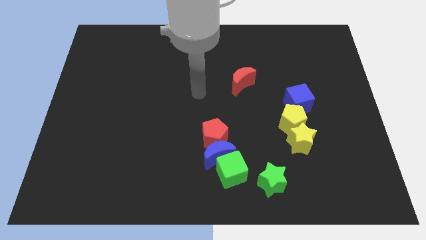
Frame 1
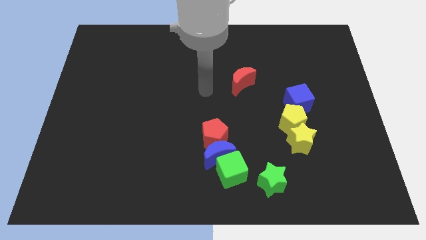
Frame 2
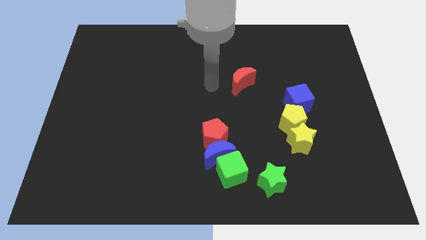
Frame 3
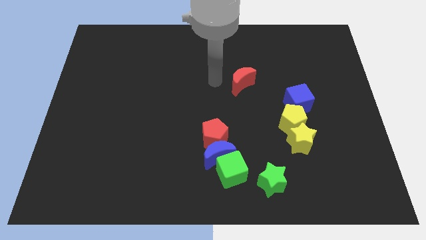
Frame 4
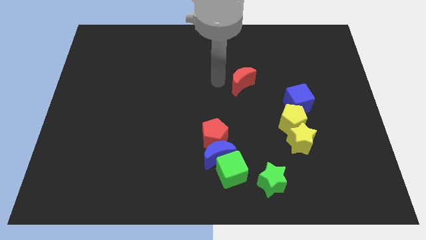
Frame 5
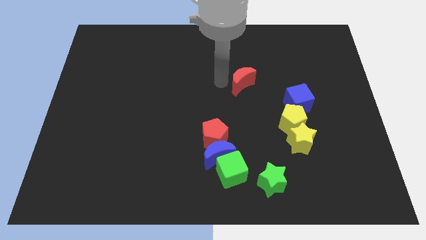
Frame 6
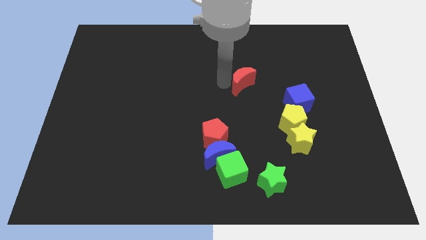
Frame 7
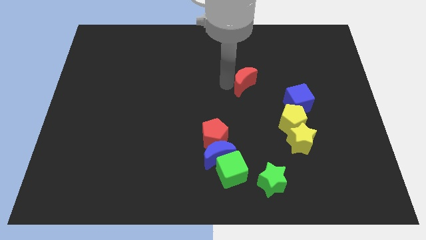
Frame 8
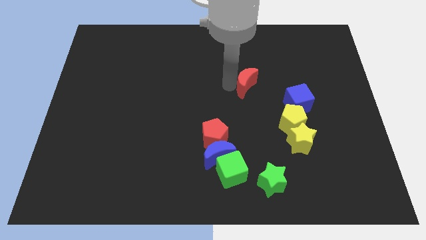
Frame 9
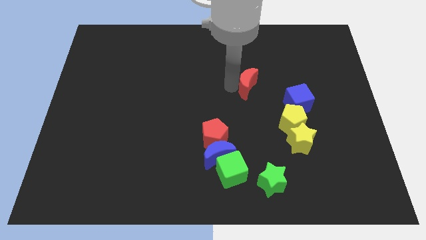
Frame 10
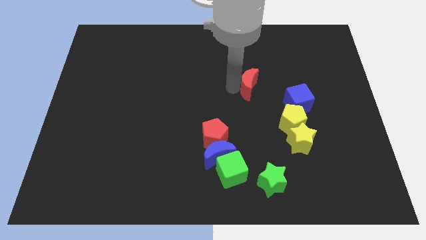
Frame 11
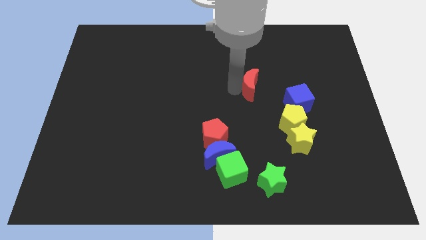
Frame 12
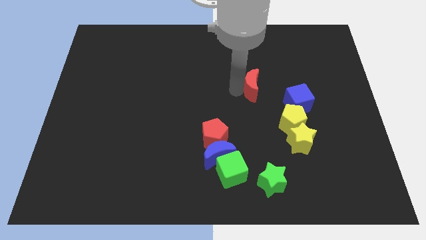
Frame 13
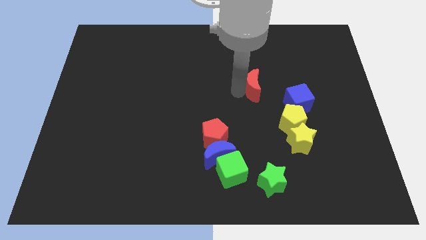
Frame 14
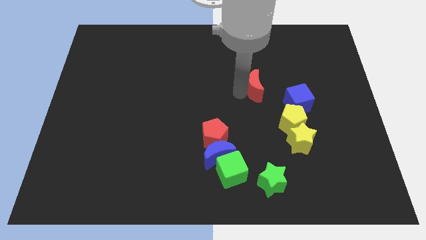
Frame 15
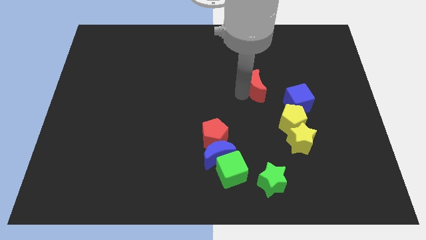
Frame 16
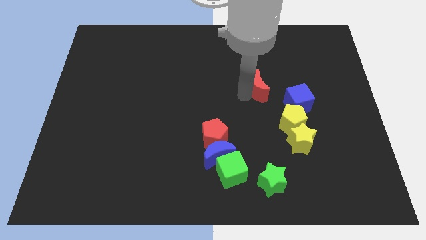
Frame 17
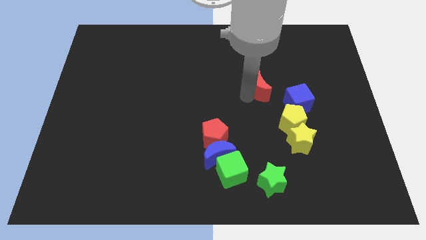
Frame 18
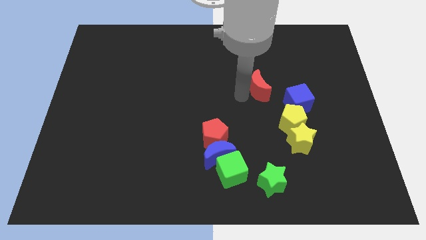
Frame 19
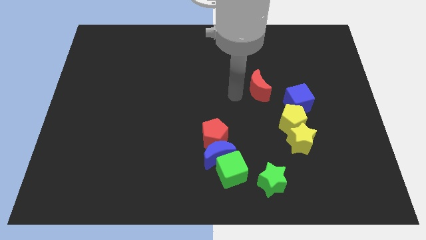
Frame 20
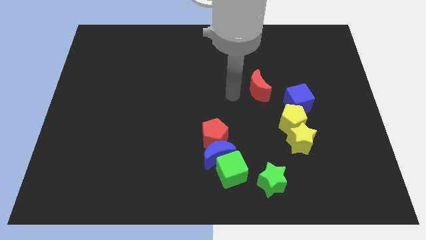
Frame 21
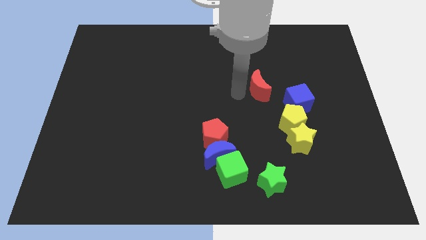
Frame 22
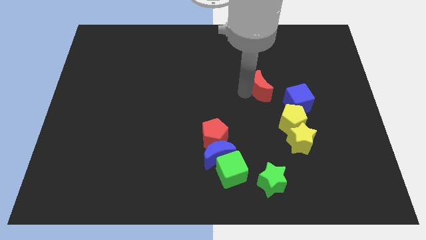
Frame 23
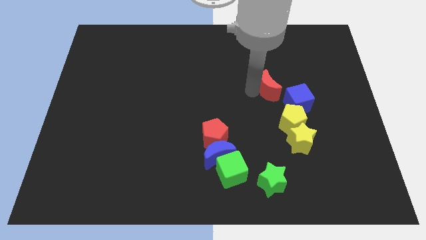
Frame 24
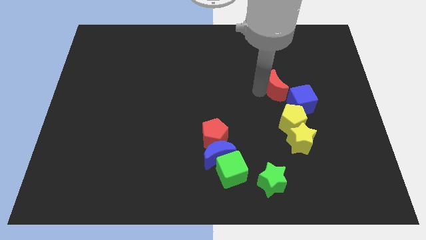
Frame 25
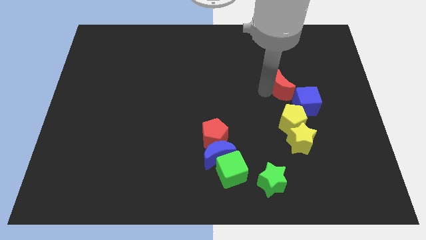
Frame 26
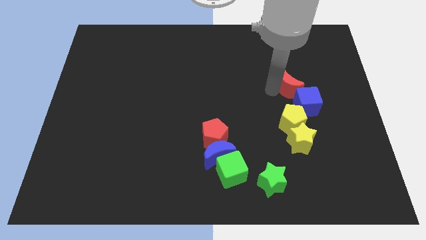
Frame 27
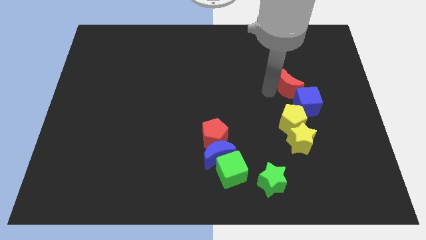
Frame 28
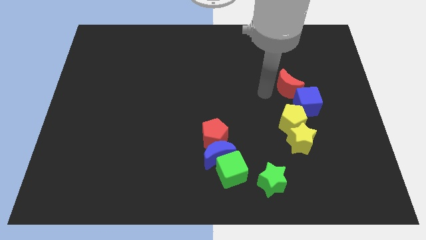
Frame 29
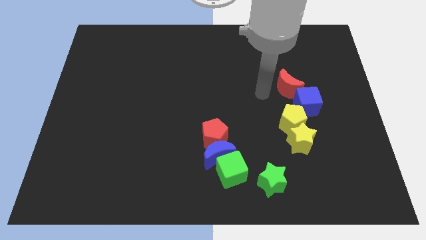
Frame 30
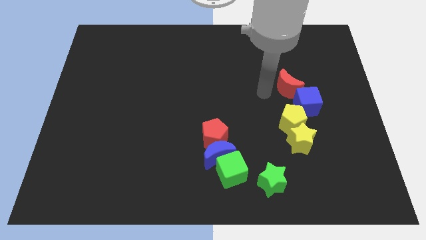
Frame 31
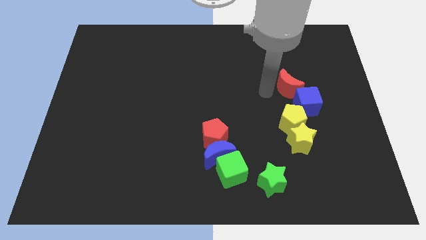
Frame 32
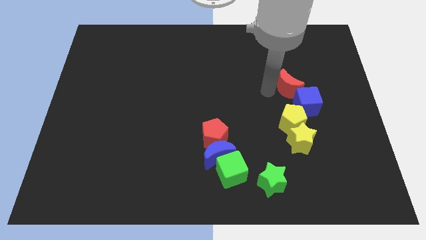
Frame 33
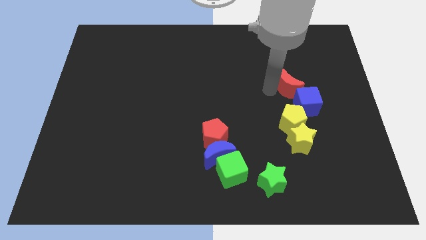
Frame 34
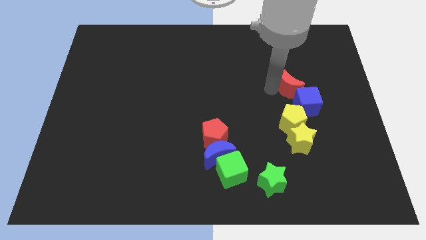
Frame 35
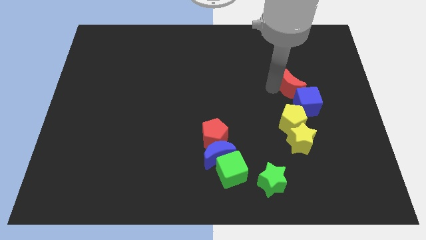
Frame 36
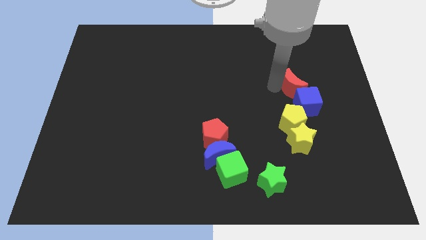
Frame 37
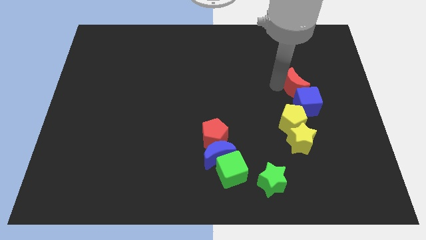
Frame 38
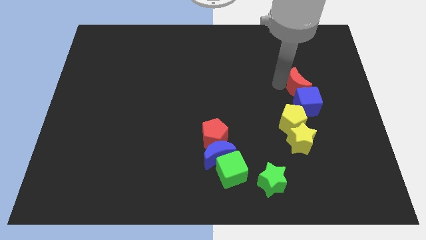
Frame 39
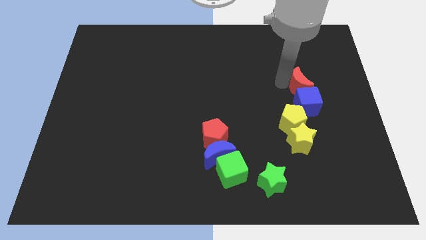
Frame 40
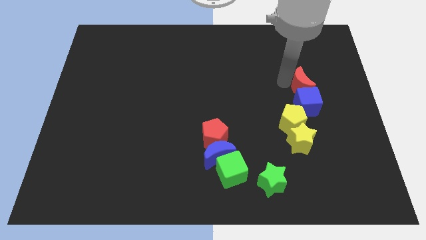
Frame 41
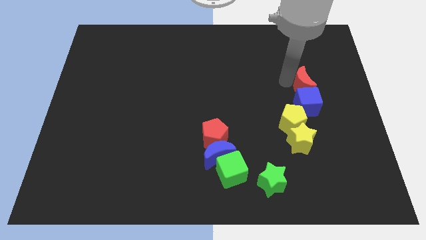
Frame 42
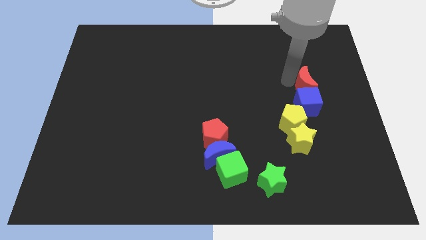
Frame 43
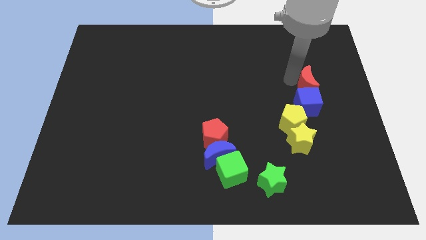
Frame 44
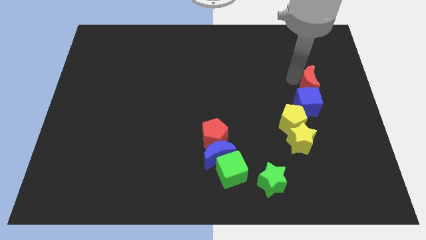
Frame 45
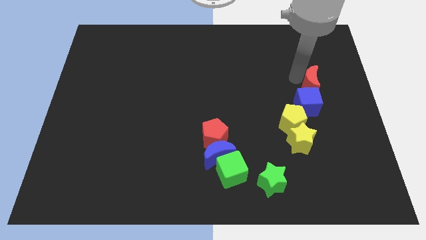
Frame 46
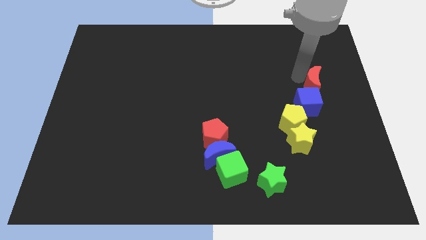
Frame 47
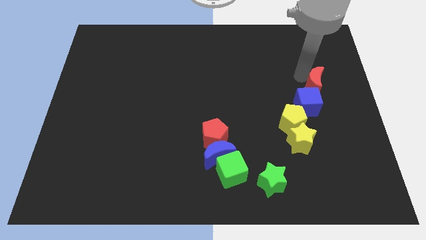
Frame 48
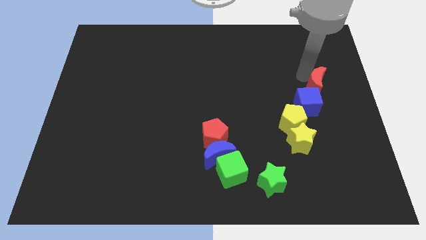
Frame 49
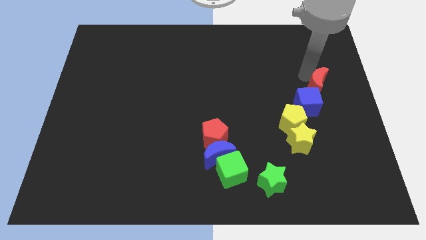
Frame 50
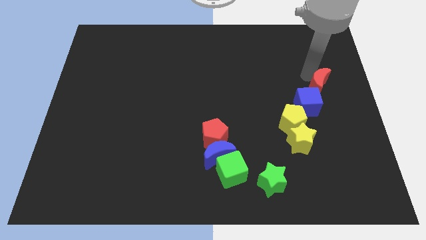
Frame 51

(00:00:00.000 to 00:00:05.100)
move the red moon to the right side of the board

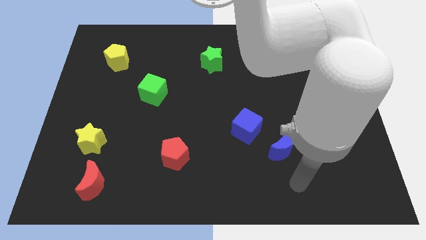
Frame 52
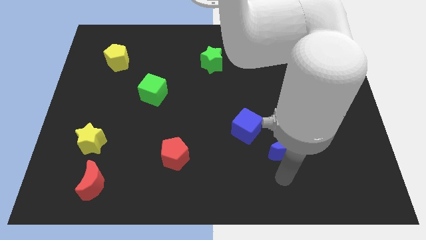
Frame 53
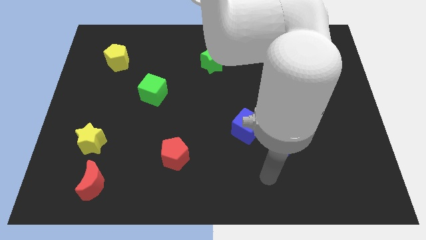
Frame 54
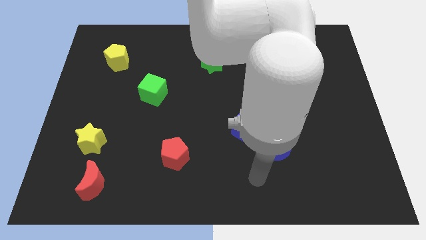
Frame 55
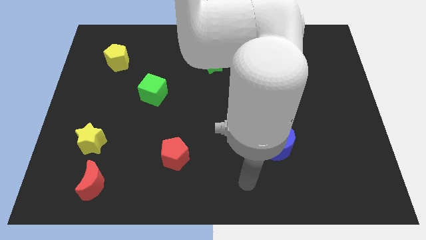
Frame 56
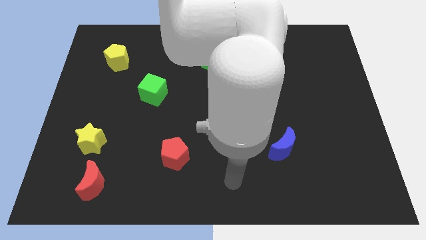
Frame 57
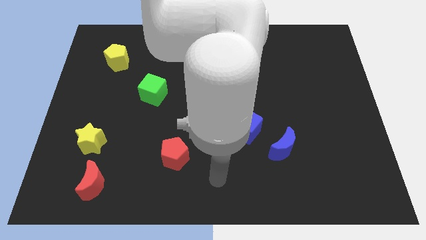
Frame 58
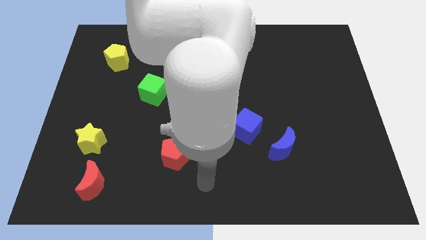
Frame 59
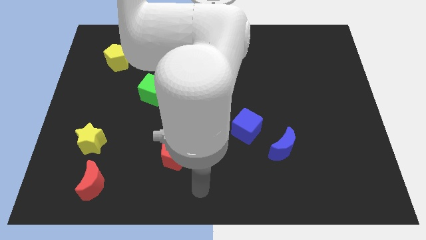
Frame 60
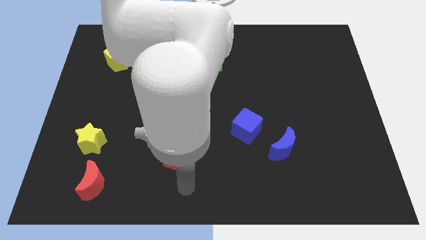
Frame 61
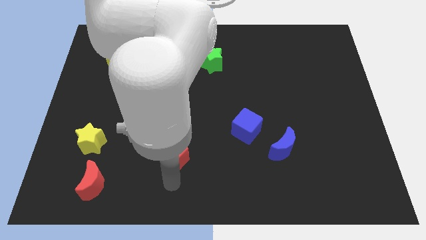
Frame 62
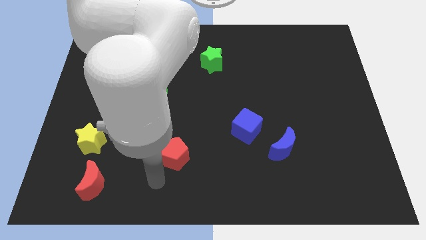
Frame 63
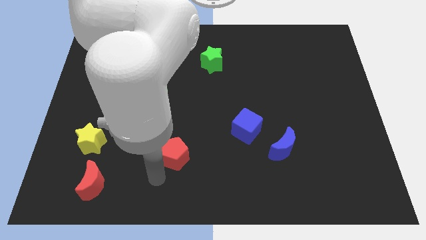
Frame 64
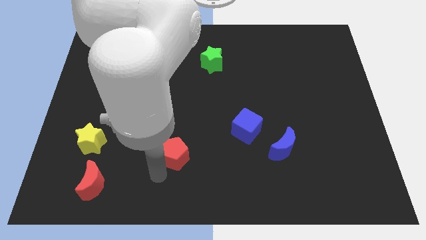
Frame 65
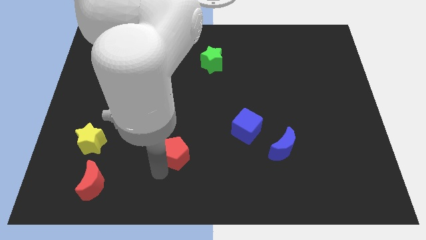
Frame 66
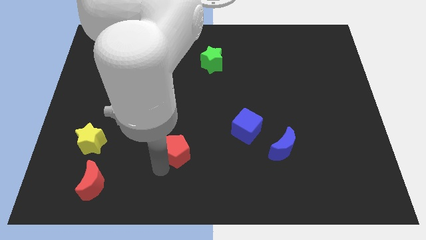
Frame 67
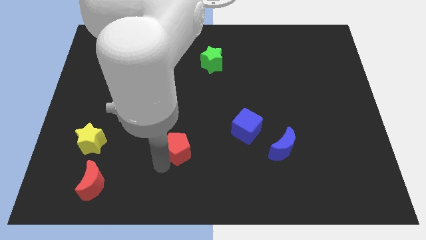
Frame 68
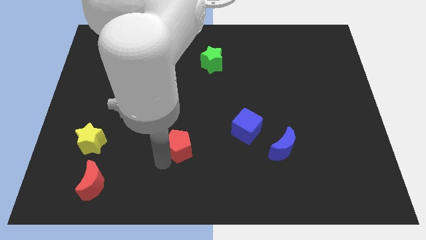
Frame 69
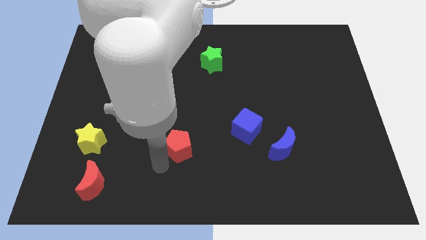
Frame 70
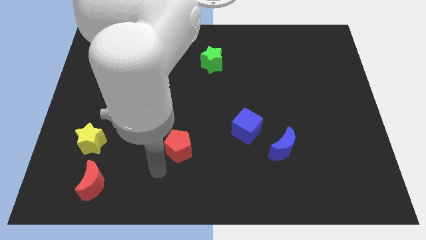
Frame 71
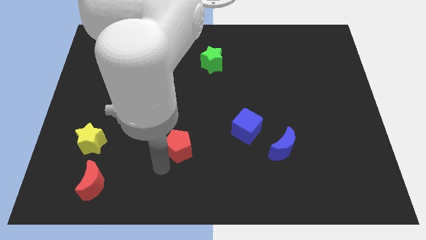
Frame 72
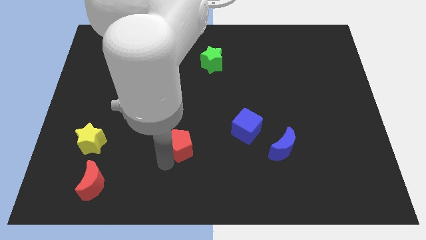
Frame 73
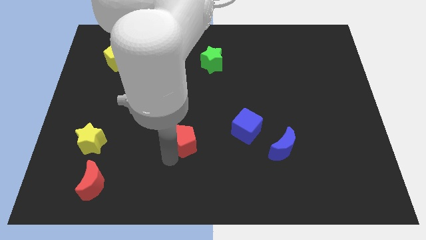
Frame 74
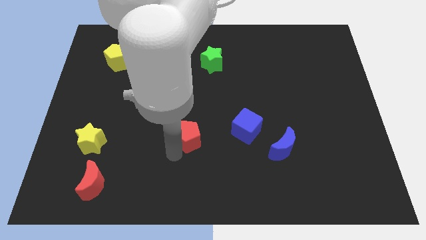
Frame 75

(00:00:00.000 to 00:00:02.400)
move the red pentagon to the center of the board

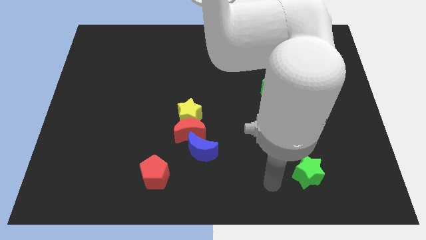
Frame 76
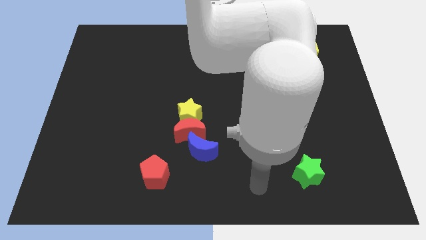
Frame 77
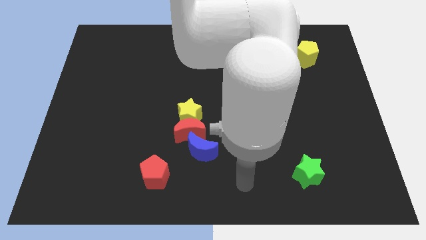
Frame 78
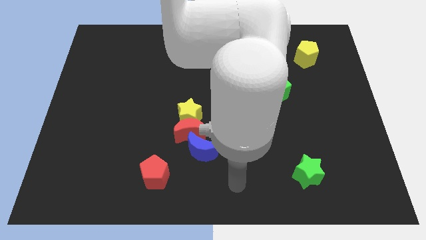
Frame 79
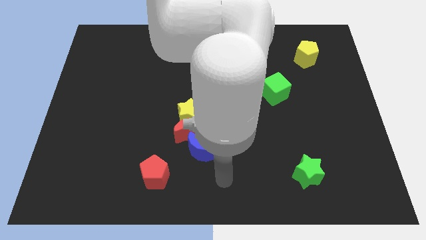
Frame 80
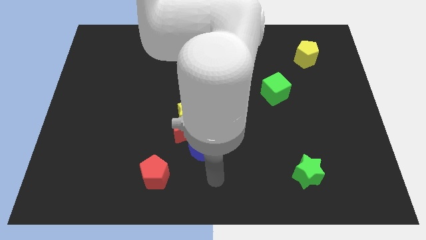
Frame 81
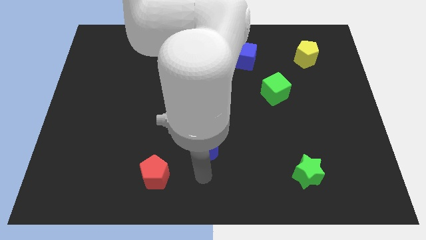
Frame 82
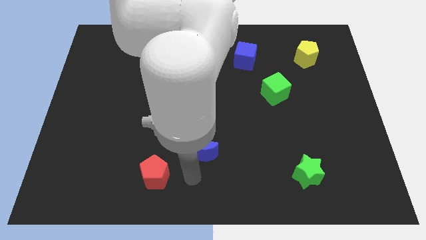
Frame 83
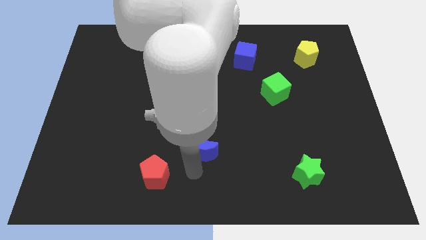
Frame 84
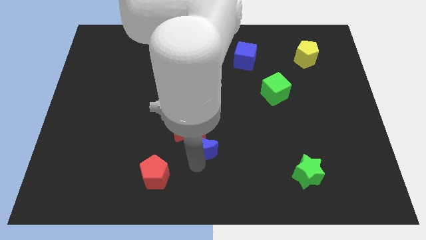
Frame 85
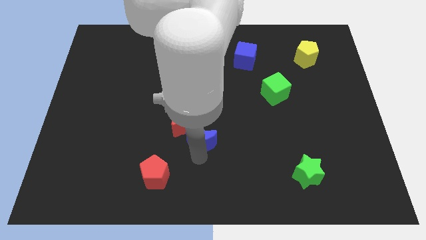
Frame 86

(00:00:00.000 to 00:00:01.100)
push the blue moon to the center
